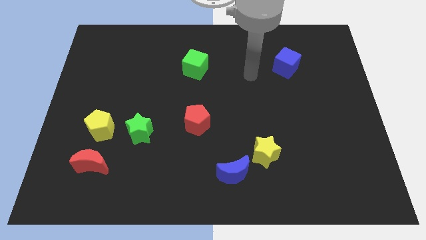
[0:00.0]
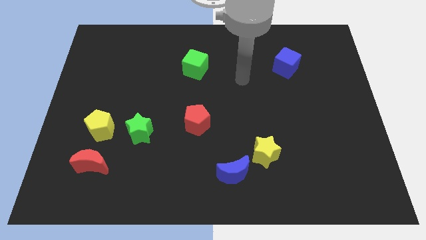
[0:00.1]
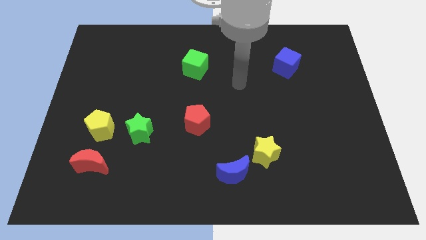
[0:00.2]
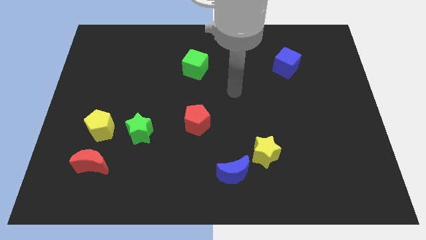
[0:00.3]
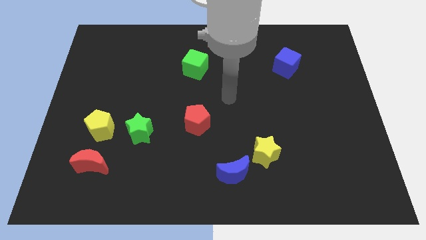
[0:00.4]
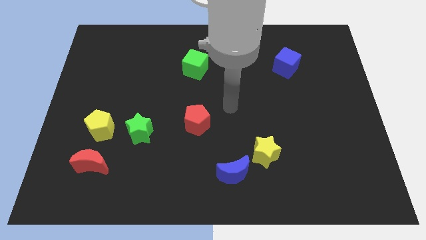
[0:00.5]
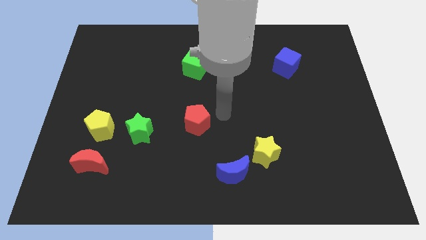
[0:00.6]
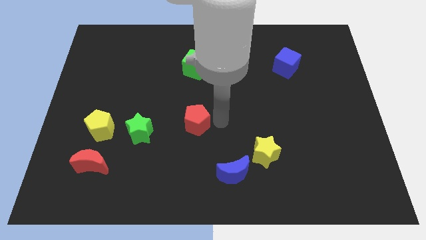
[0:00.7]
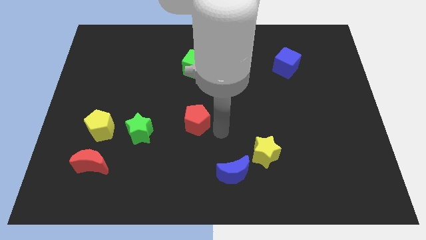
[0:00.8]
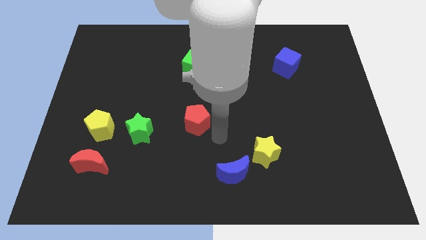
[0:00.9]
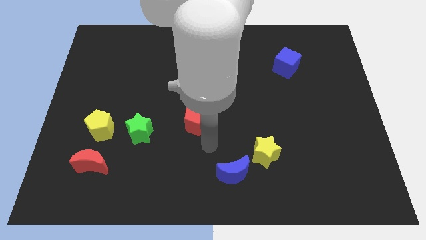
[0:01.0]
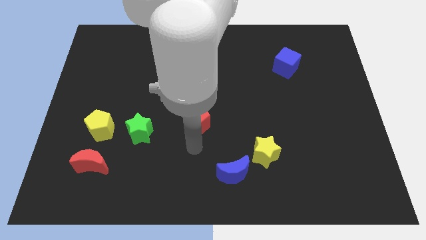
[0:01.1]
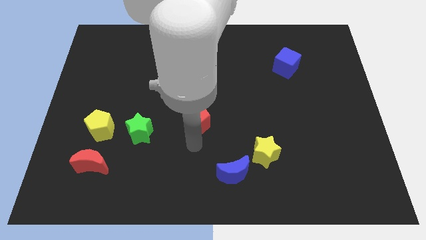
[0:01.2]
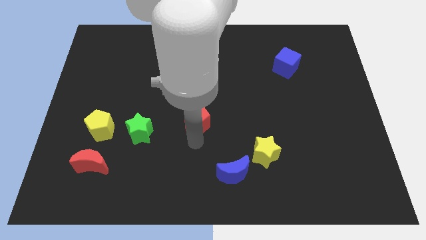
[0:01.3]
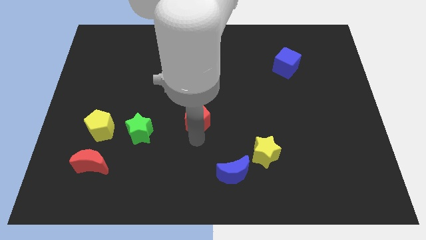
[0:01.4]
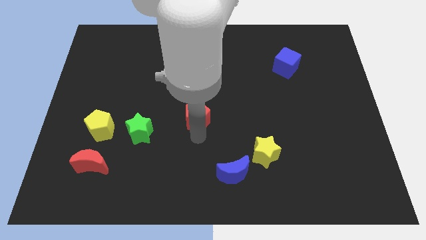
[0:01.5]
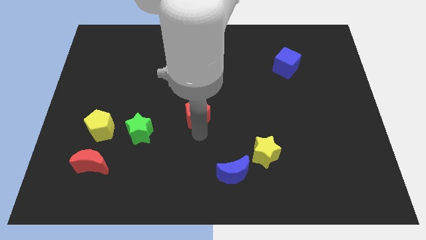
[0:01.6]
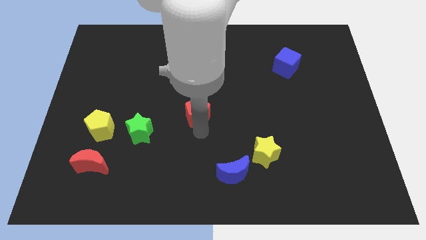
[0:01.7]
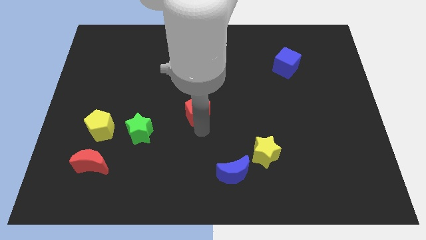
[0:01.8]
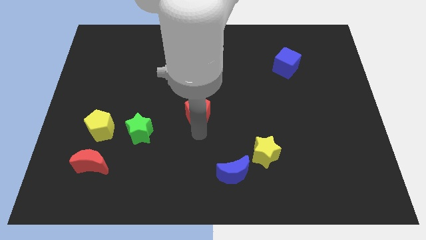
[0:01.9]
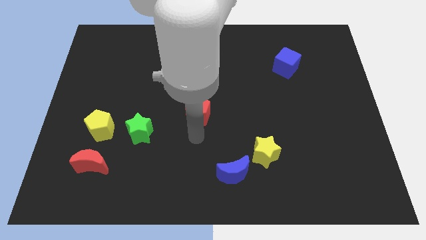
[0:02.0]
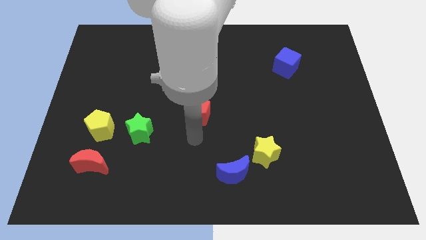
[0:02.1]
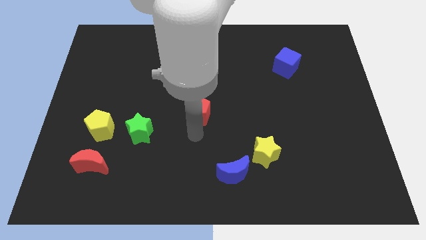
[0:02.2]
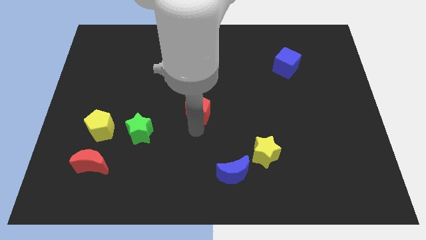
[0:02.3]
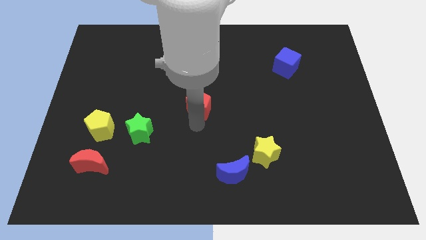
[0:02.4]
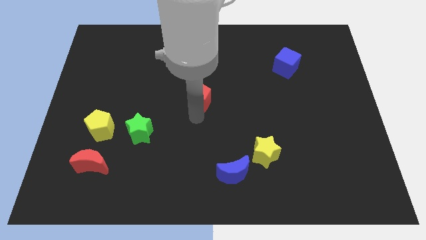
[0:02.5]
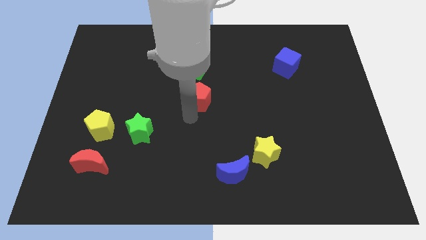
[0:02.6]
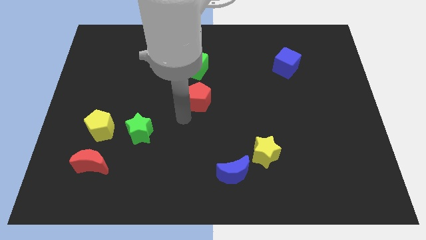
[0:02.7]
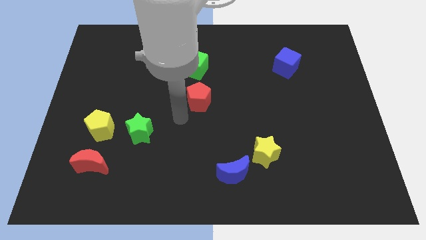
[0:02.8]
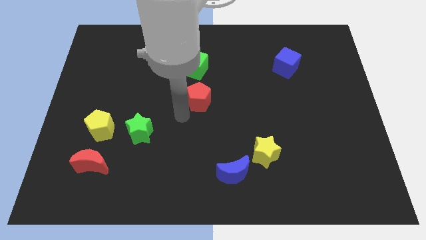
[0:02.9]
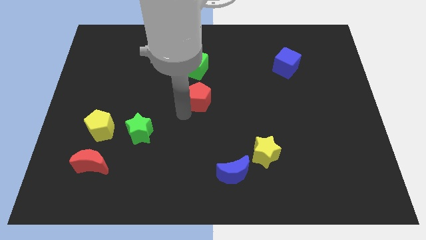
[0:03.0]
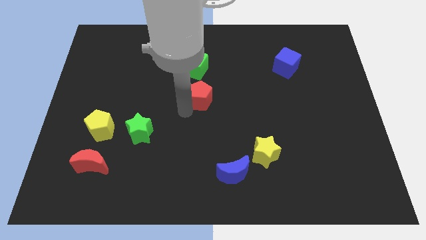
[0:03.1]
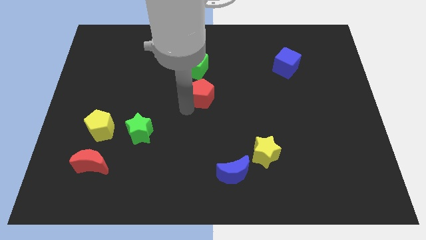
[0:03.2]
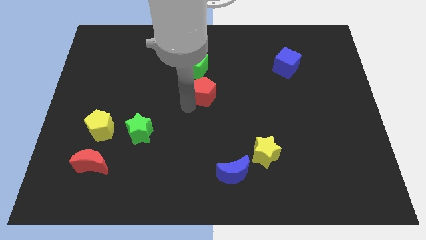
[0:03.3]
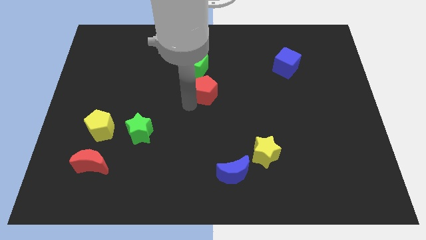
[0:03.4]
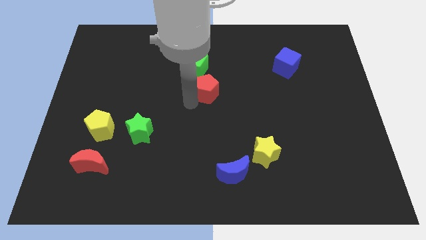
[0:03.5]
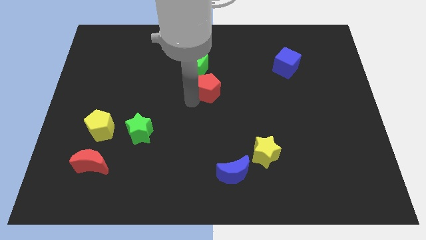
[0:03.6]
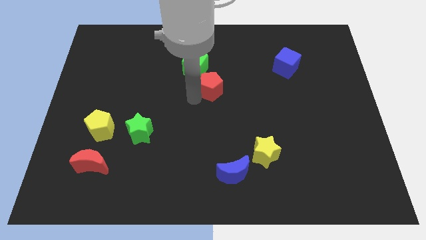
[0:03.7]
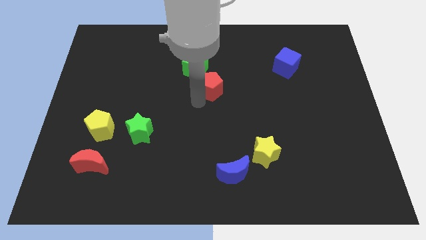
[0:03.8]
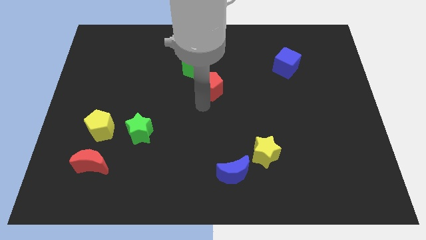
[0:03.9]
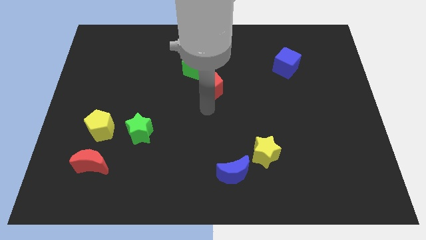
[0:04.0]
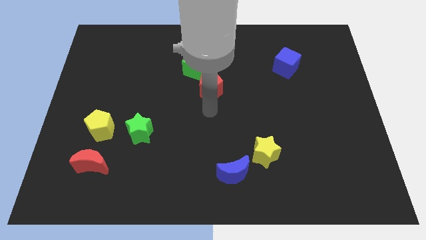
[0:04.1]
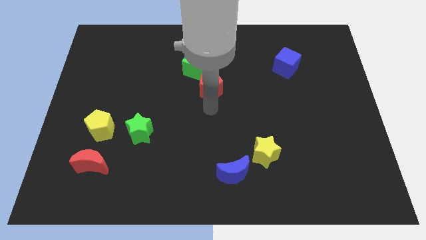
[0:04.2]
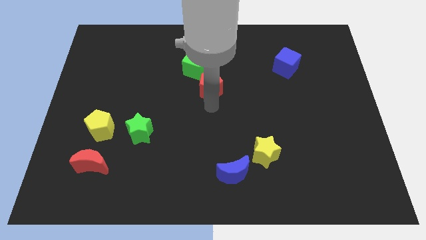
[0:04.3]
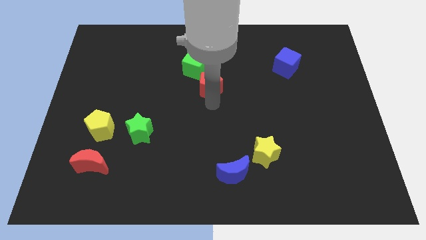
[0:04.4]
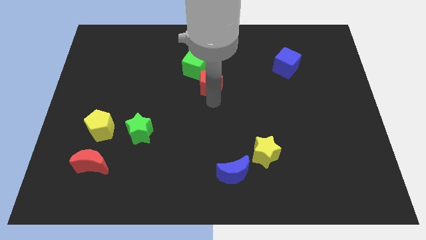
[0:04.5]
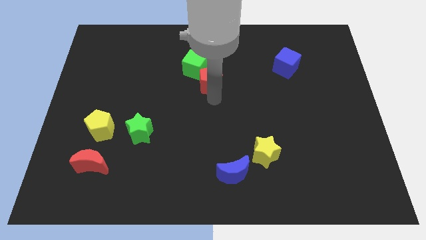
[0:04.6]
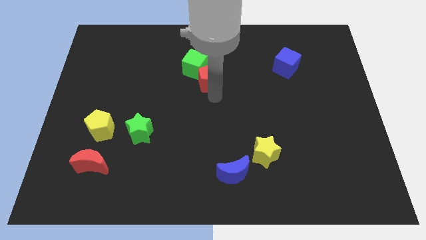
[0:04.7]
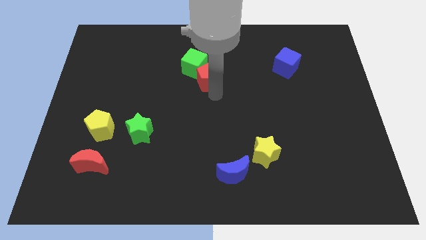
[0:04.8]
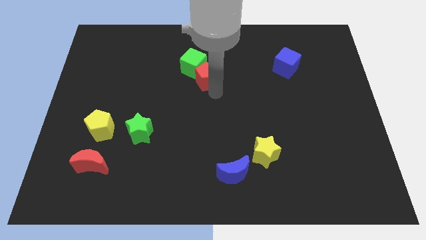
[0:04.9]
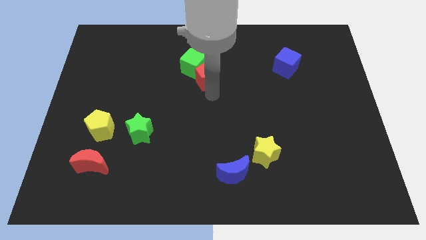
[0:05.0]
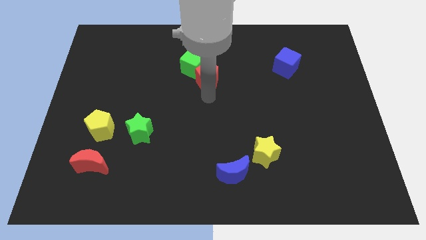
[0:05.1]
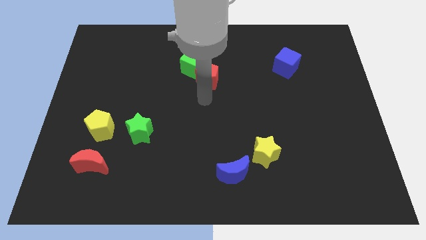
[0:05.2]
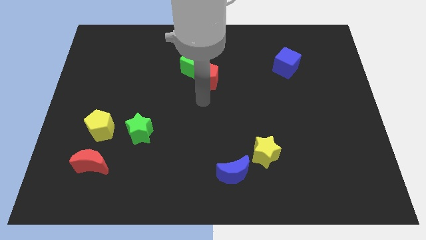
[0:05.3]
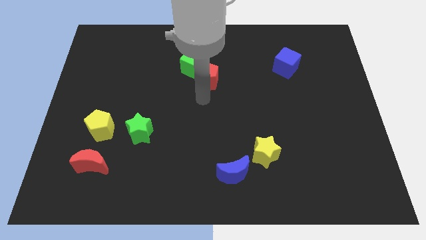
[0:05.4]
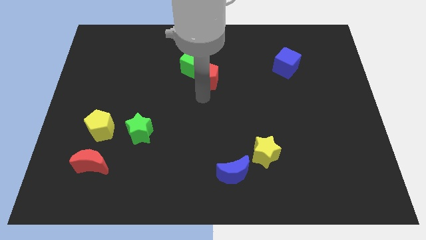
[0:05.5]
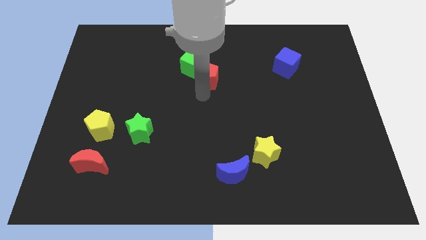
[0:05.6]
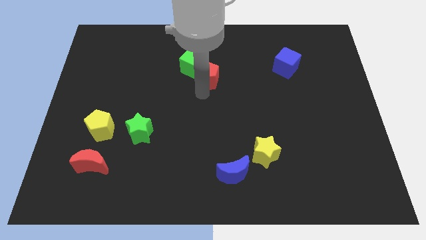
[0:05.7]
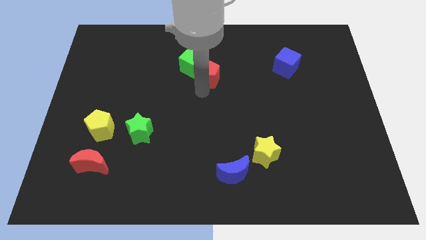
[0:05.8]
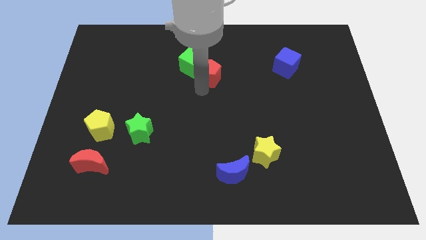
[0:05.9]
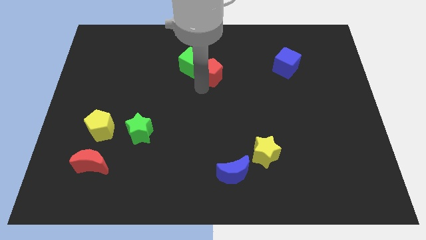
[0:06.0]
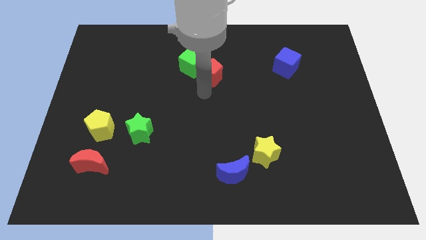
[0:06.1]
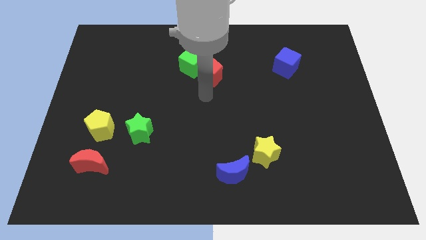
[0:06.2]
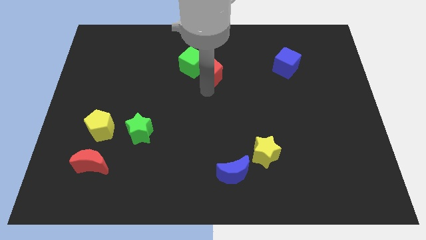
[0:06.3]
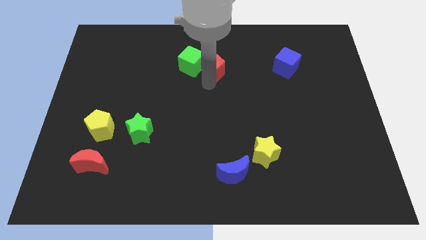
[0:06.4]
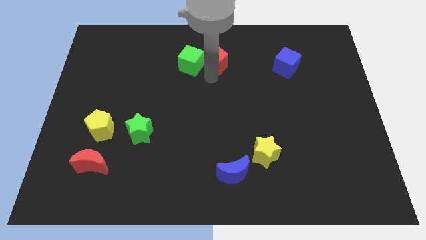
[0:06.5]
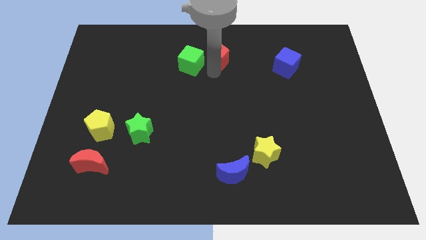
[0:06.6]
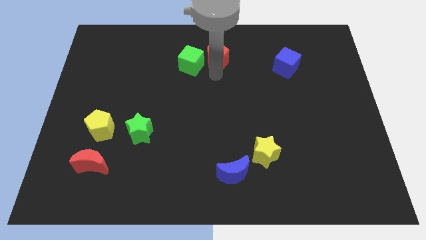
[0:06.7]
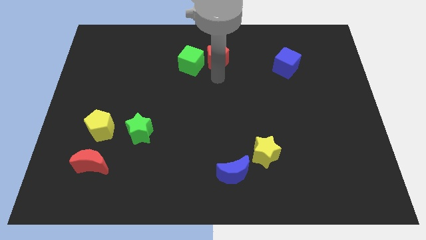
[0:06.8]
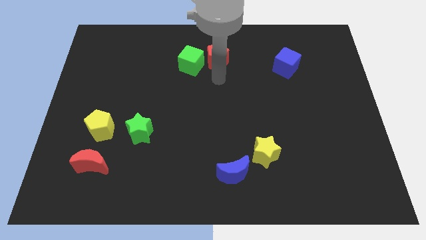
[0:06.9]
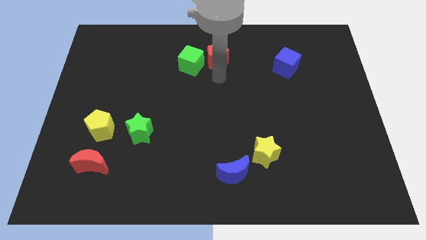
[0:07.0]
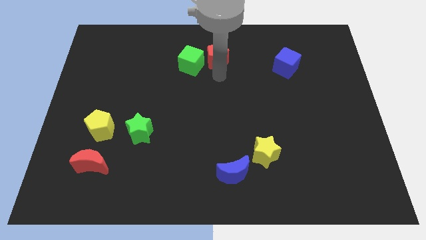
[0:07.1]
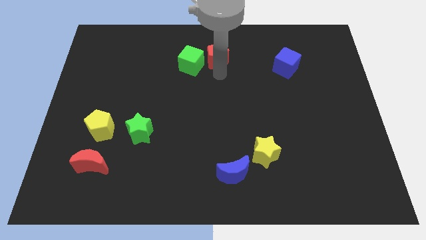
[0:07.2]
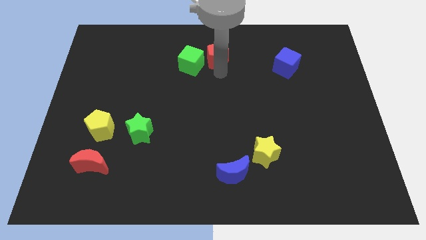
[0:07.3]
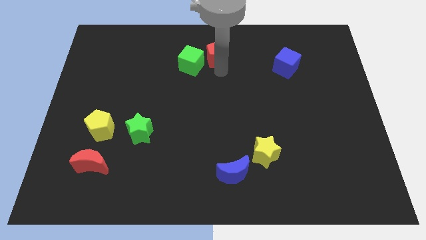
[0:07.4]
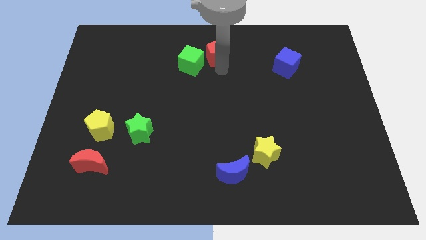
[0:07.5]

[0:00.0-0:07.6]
put the red pentagon to the top side
